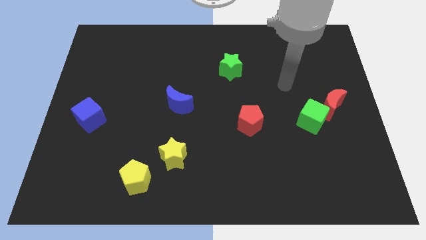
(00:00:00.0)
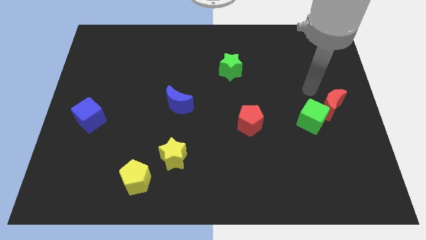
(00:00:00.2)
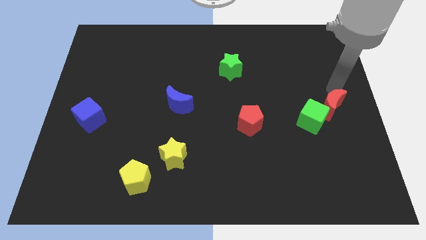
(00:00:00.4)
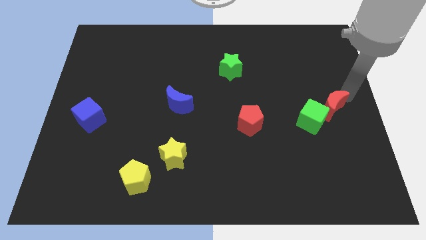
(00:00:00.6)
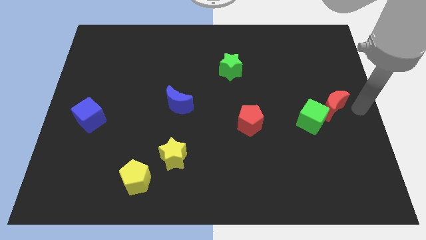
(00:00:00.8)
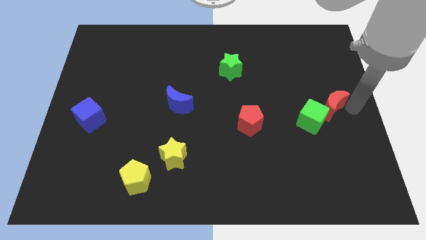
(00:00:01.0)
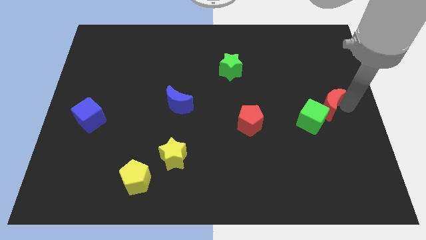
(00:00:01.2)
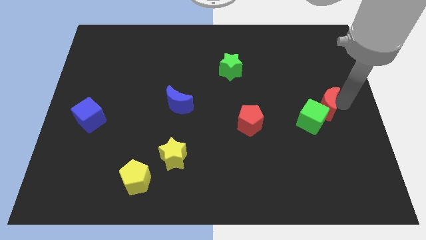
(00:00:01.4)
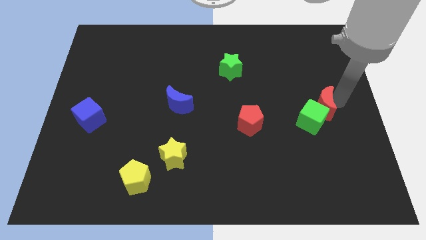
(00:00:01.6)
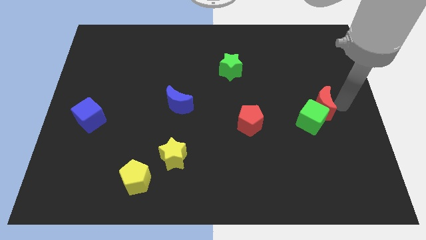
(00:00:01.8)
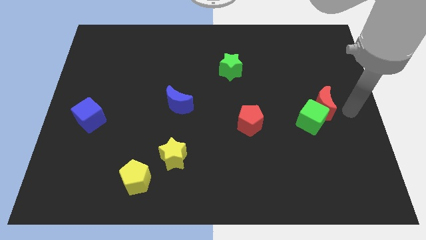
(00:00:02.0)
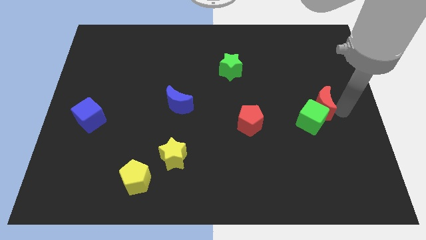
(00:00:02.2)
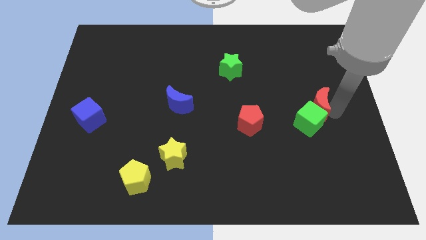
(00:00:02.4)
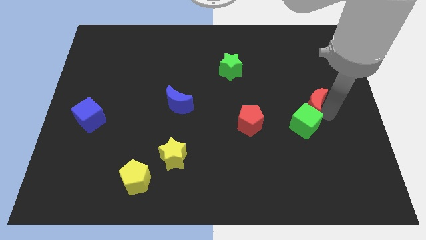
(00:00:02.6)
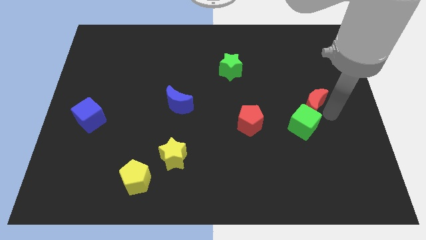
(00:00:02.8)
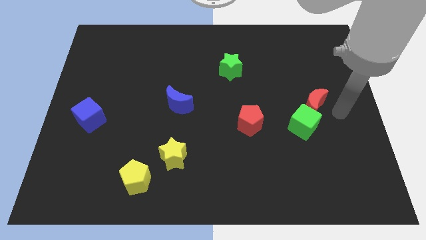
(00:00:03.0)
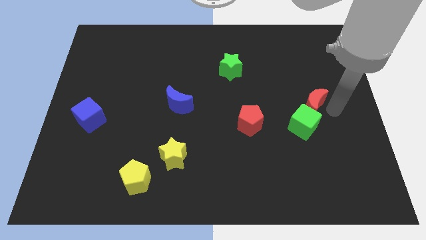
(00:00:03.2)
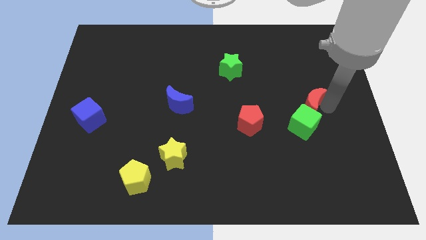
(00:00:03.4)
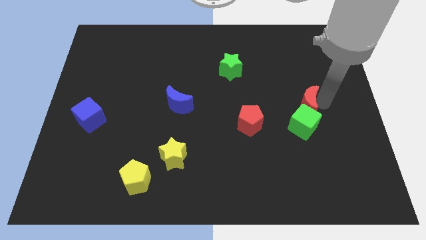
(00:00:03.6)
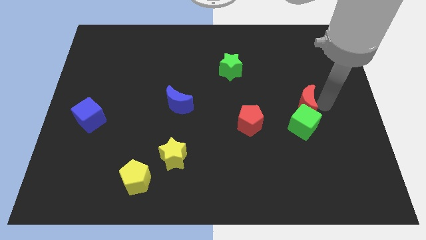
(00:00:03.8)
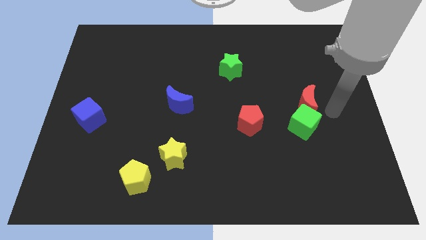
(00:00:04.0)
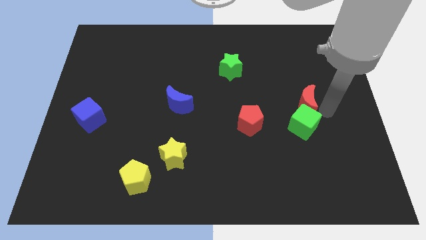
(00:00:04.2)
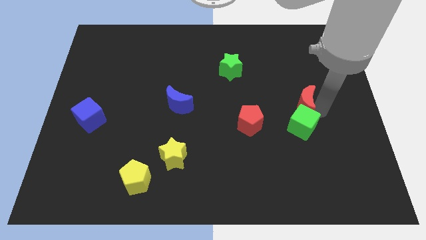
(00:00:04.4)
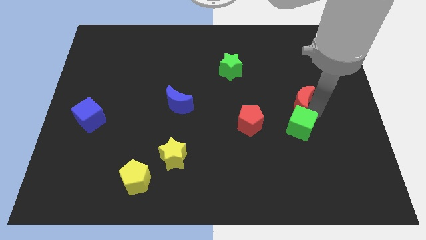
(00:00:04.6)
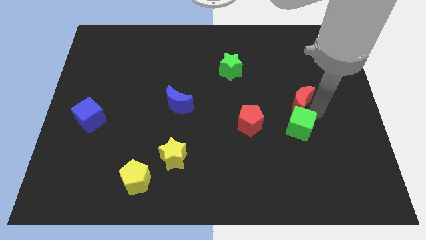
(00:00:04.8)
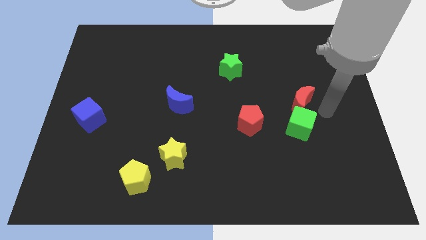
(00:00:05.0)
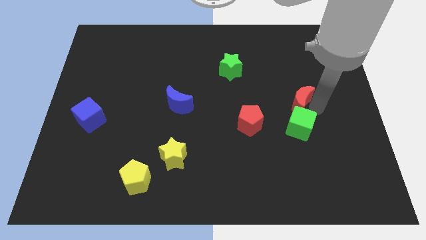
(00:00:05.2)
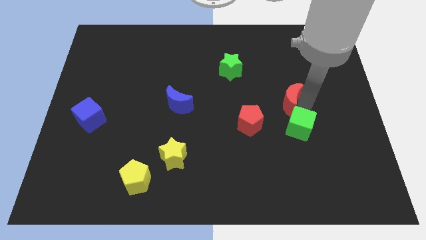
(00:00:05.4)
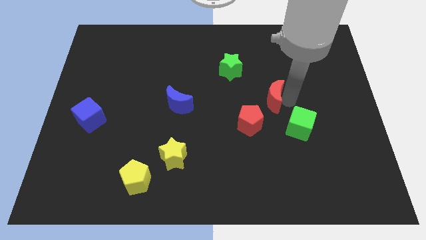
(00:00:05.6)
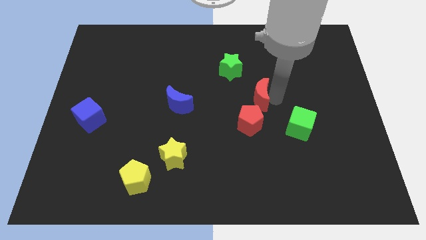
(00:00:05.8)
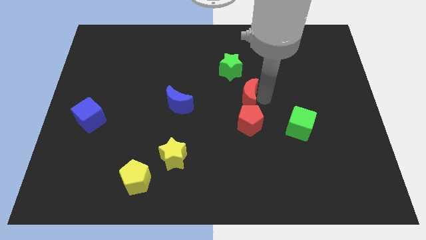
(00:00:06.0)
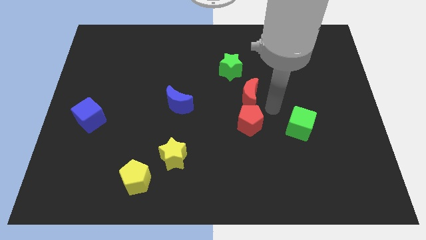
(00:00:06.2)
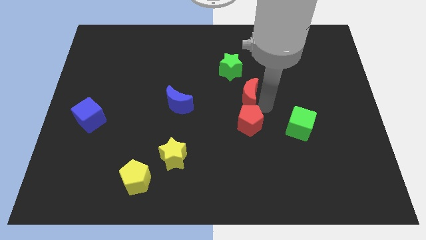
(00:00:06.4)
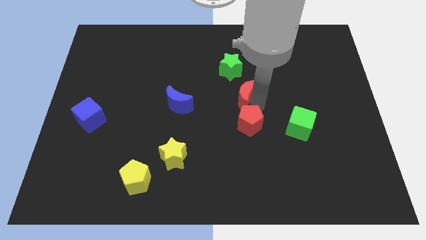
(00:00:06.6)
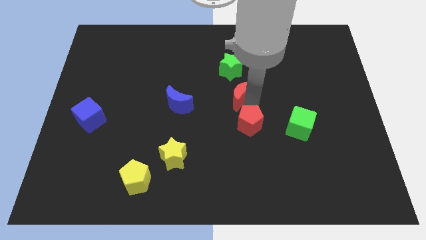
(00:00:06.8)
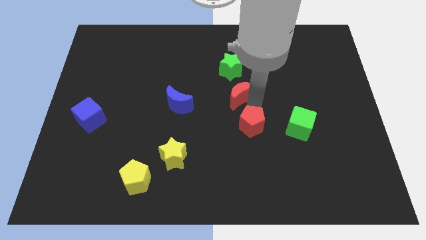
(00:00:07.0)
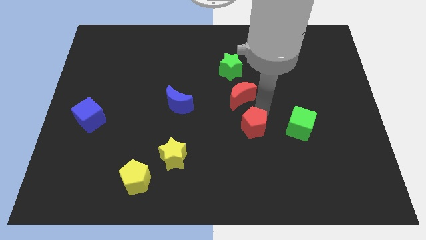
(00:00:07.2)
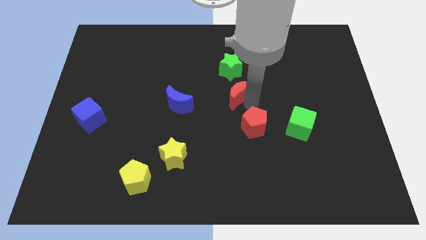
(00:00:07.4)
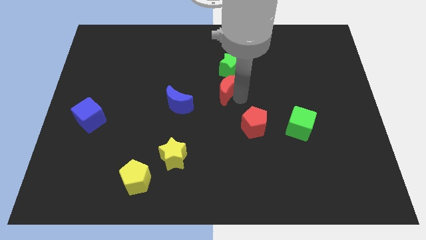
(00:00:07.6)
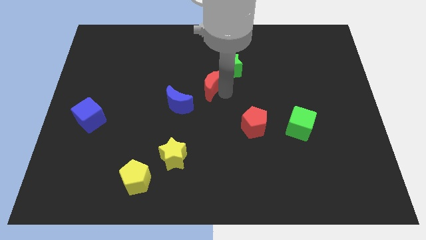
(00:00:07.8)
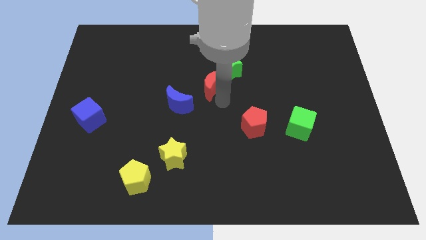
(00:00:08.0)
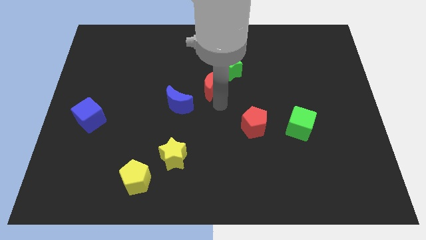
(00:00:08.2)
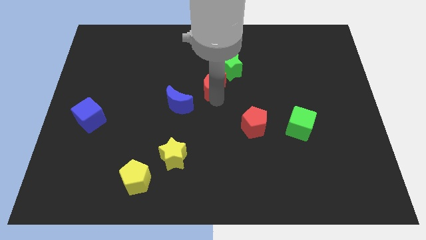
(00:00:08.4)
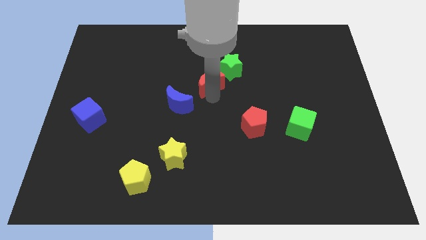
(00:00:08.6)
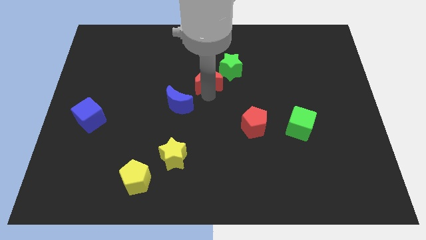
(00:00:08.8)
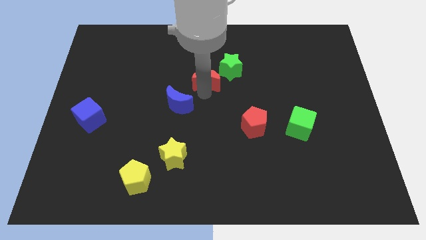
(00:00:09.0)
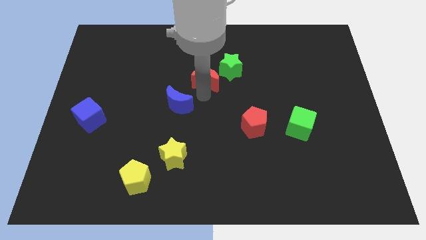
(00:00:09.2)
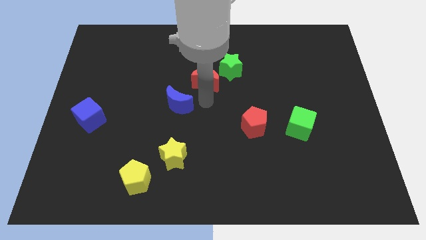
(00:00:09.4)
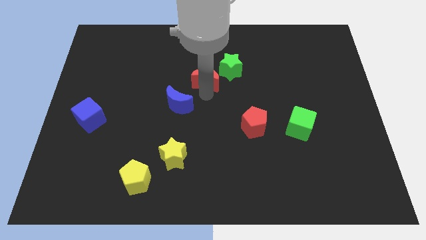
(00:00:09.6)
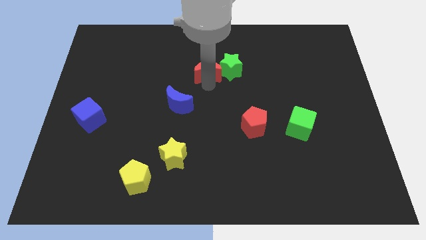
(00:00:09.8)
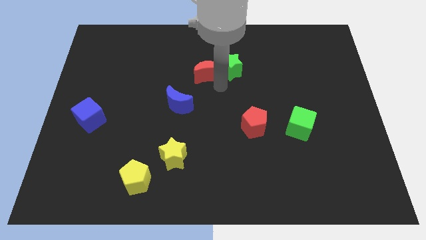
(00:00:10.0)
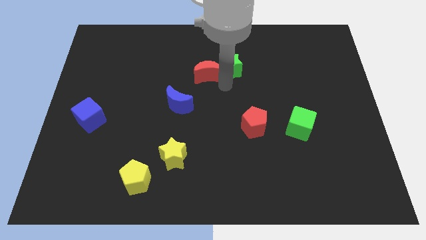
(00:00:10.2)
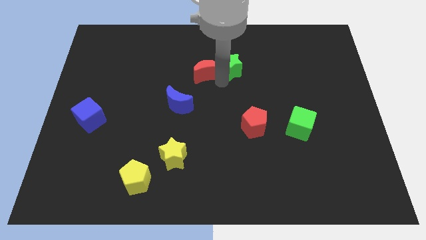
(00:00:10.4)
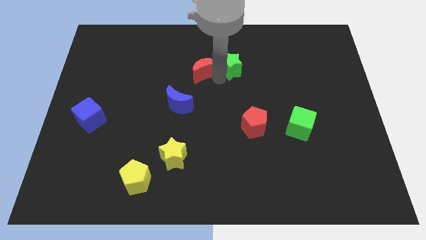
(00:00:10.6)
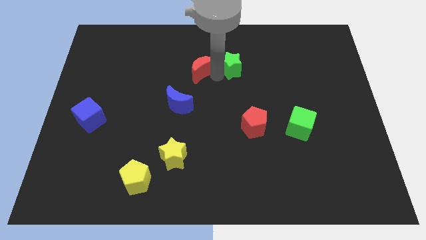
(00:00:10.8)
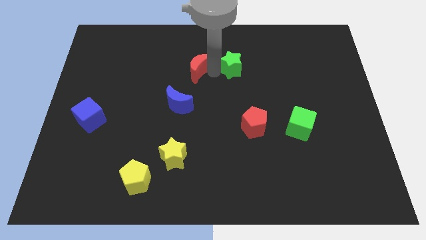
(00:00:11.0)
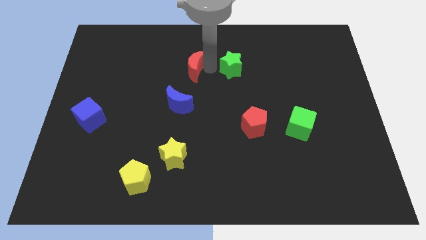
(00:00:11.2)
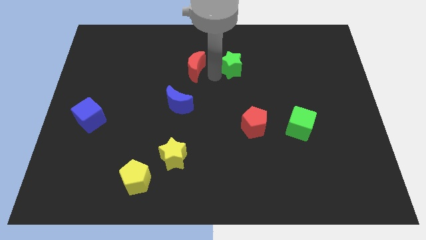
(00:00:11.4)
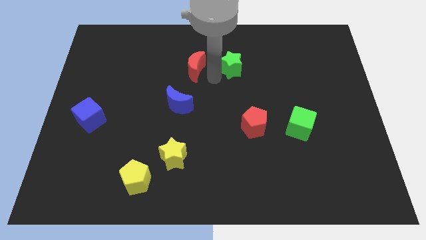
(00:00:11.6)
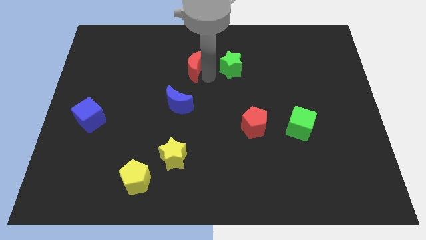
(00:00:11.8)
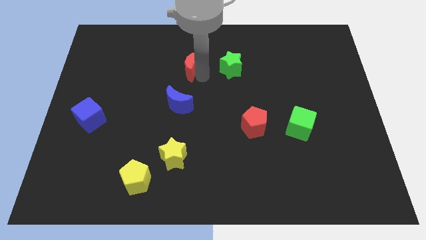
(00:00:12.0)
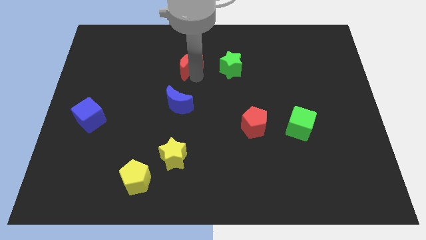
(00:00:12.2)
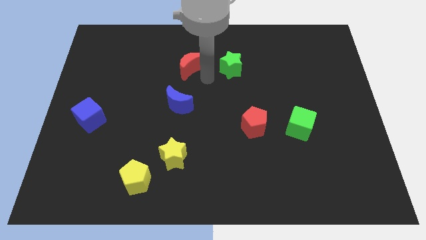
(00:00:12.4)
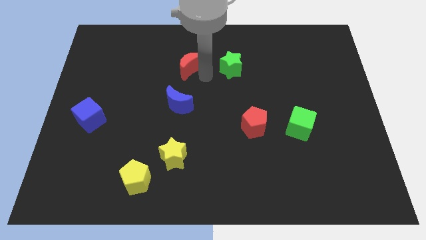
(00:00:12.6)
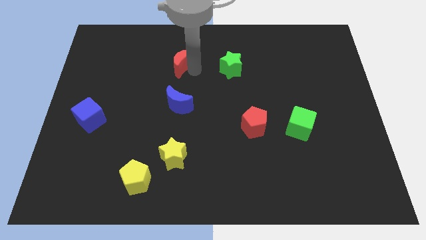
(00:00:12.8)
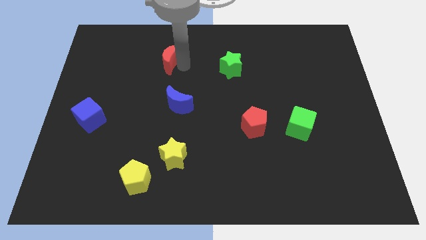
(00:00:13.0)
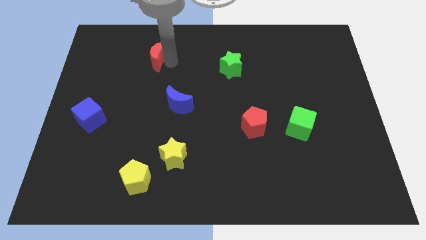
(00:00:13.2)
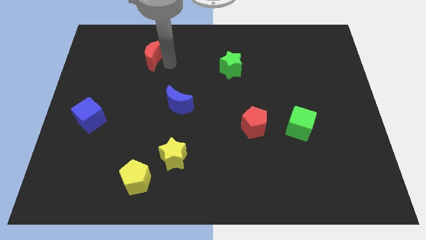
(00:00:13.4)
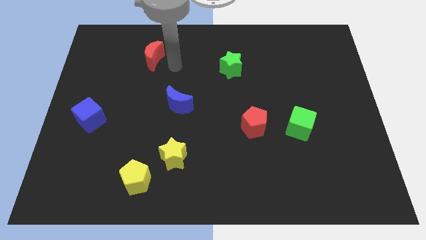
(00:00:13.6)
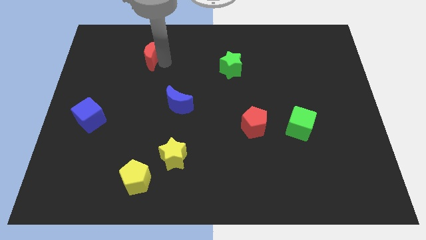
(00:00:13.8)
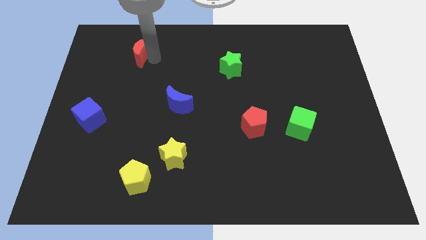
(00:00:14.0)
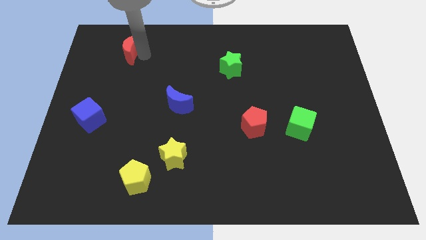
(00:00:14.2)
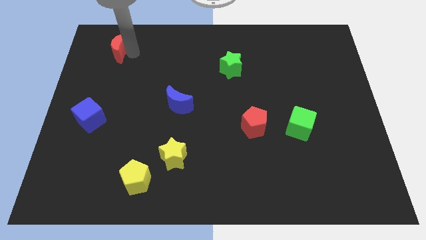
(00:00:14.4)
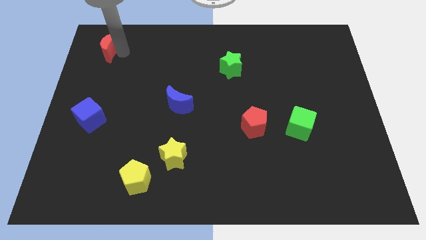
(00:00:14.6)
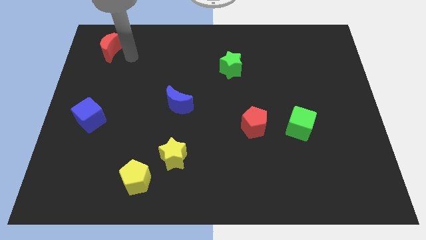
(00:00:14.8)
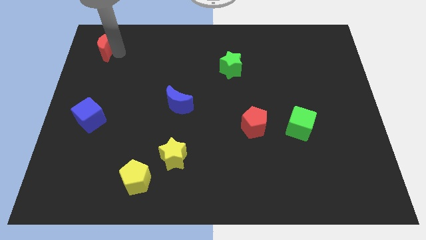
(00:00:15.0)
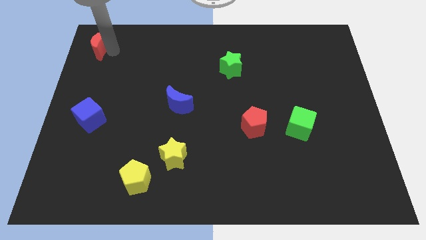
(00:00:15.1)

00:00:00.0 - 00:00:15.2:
slide the red moon to the top left

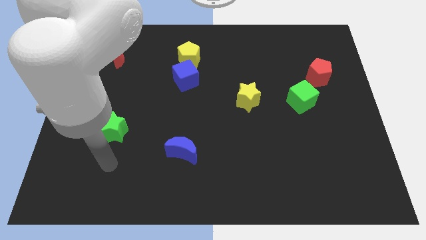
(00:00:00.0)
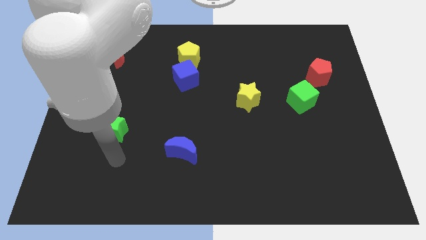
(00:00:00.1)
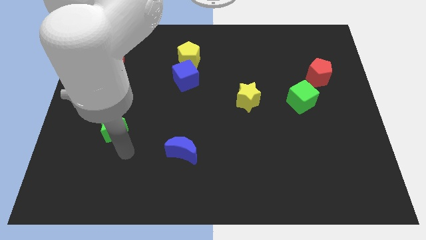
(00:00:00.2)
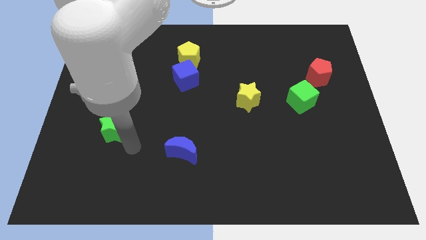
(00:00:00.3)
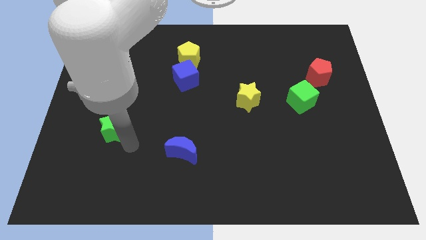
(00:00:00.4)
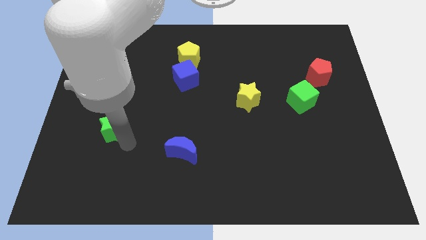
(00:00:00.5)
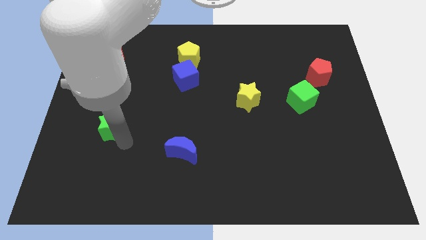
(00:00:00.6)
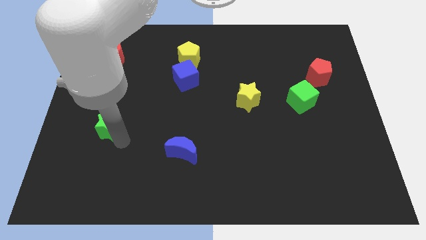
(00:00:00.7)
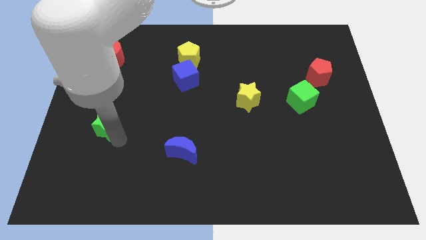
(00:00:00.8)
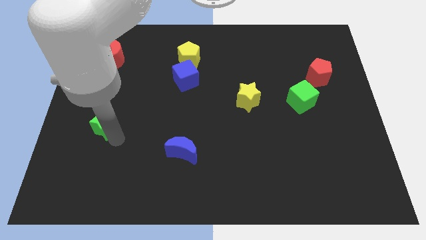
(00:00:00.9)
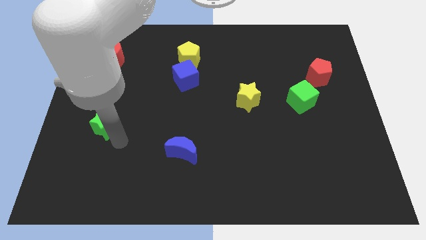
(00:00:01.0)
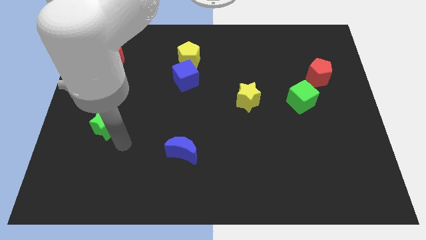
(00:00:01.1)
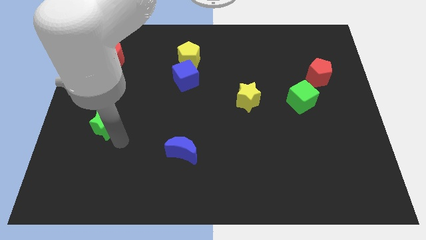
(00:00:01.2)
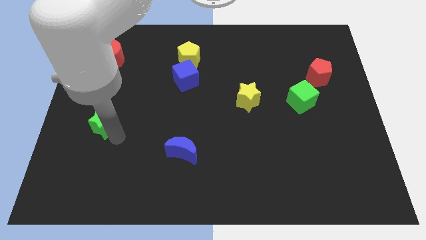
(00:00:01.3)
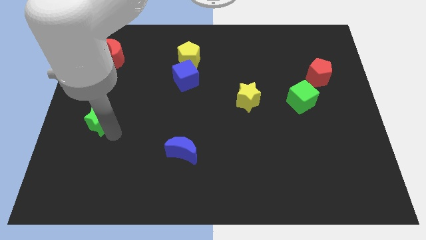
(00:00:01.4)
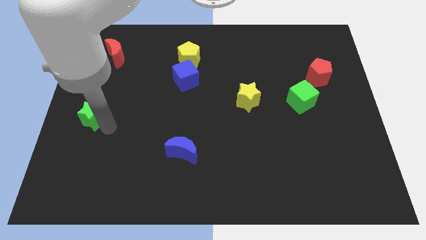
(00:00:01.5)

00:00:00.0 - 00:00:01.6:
move the green star to the left side
